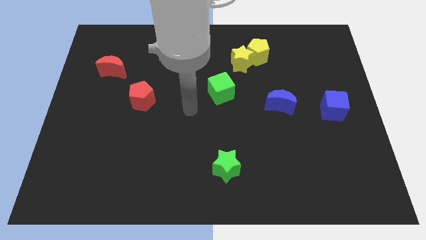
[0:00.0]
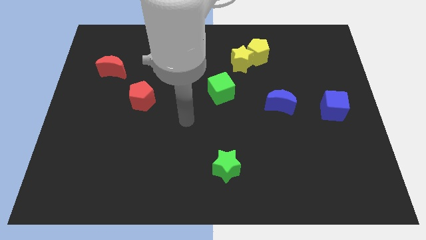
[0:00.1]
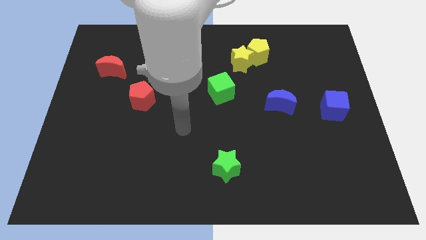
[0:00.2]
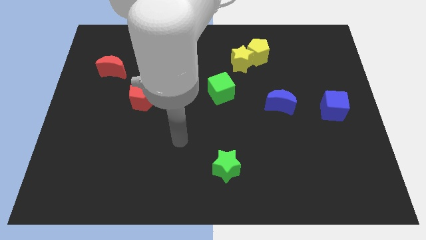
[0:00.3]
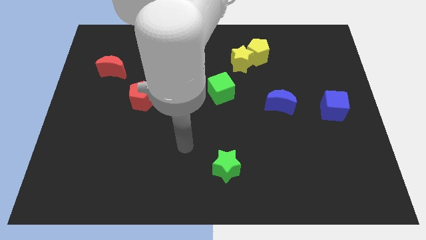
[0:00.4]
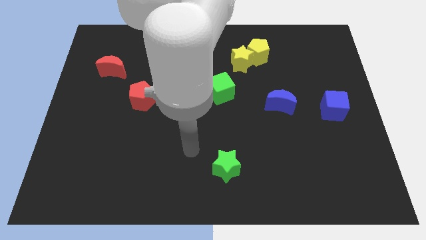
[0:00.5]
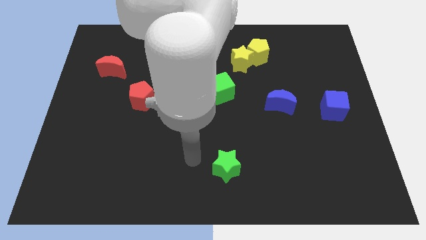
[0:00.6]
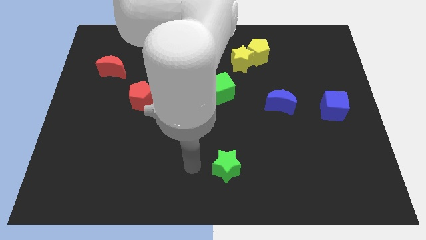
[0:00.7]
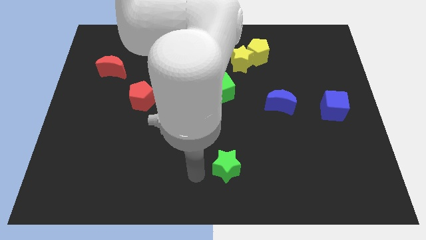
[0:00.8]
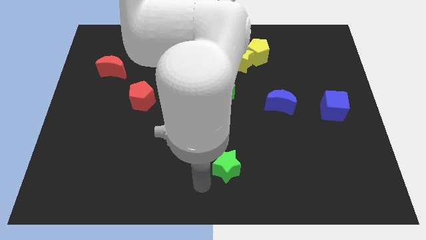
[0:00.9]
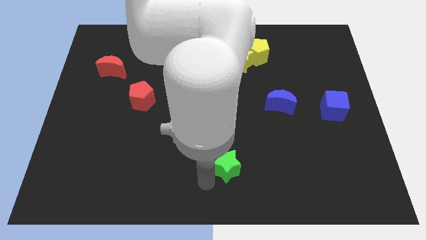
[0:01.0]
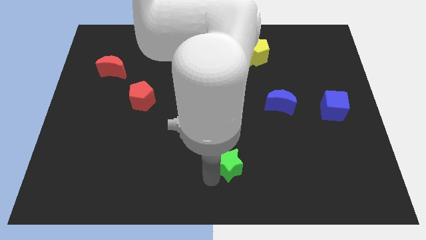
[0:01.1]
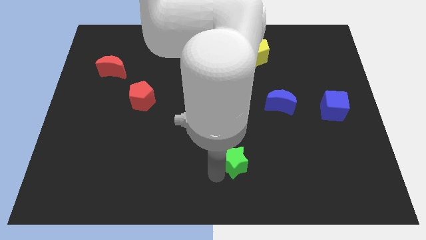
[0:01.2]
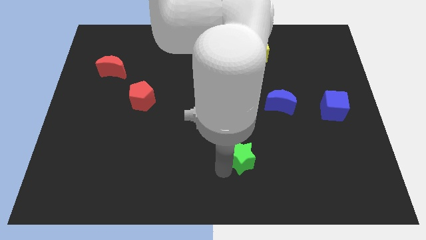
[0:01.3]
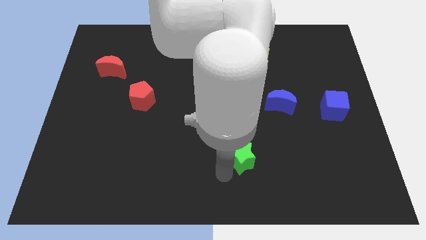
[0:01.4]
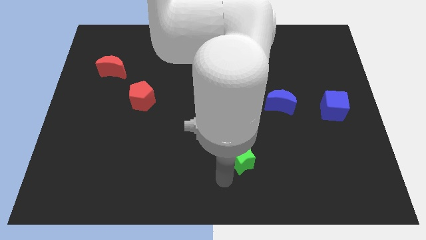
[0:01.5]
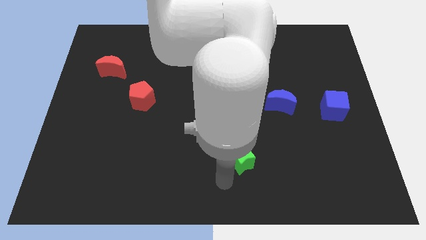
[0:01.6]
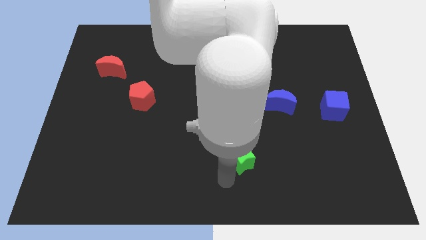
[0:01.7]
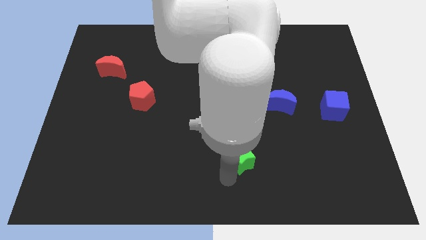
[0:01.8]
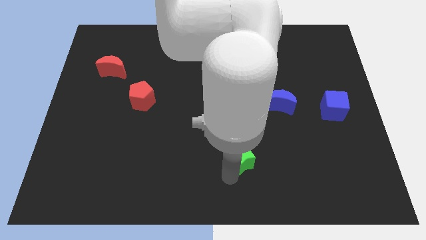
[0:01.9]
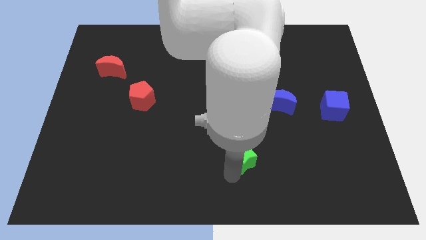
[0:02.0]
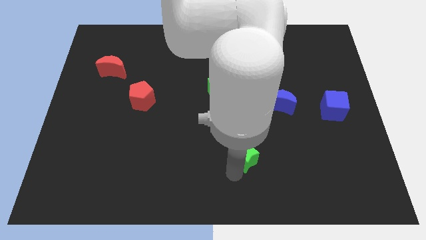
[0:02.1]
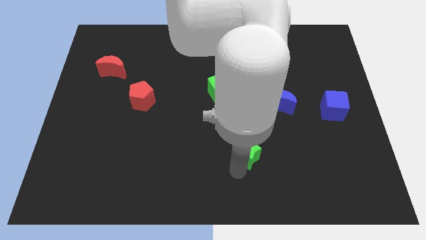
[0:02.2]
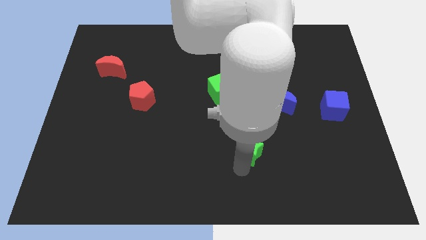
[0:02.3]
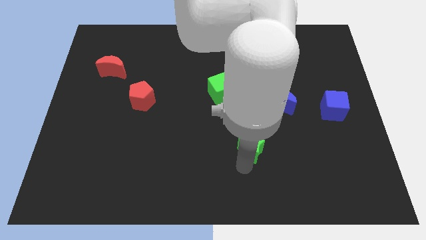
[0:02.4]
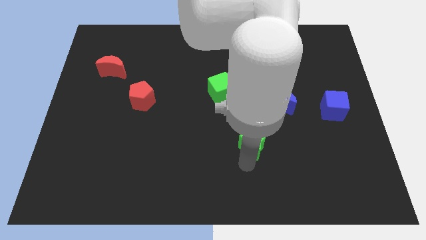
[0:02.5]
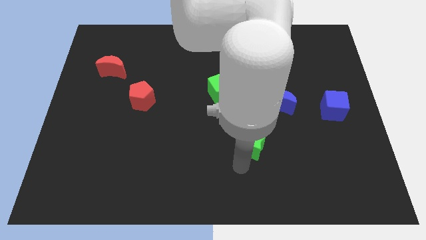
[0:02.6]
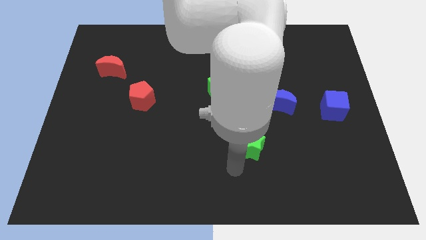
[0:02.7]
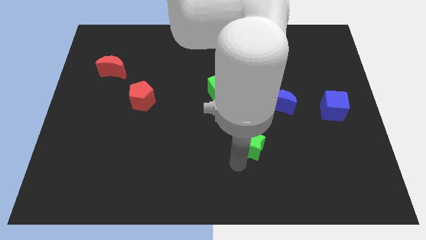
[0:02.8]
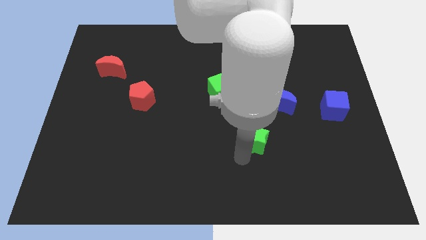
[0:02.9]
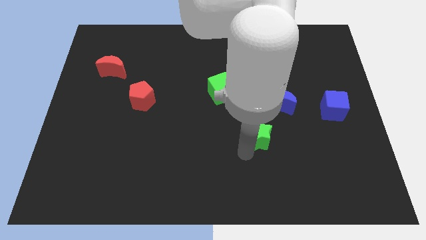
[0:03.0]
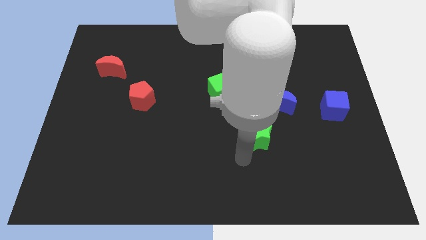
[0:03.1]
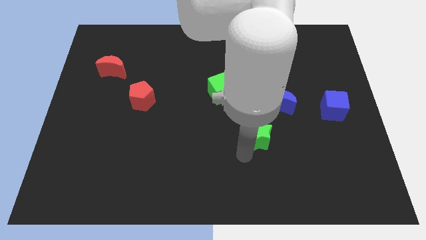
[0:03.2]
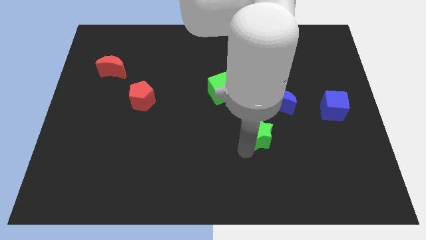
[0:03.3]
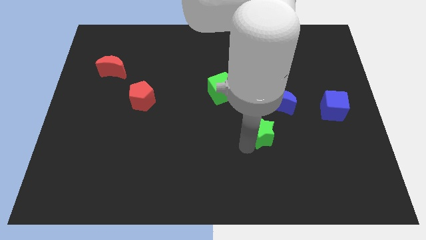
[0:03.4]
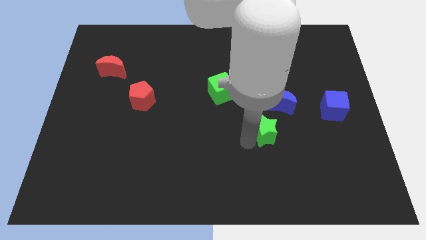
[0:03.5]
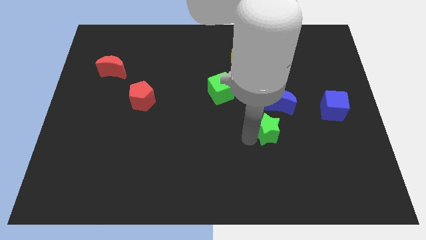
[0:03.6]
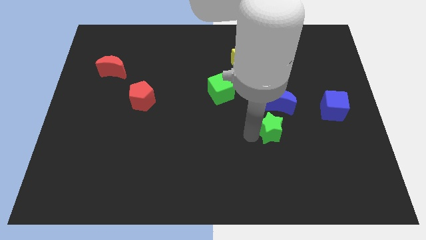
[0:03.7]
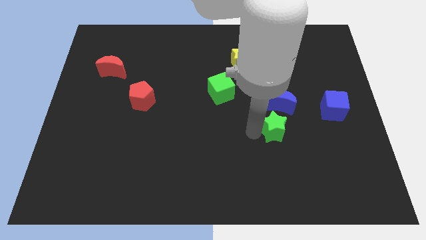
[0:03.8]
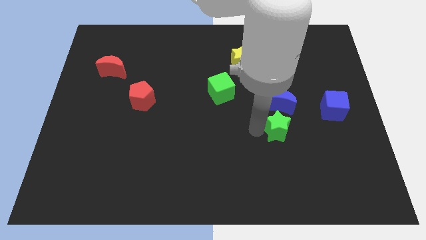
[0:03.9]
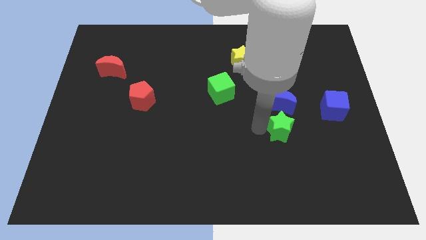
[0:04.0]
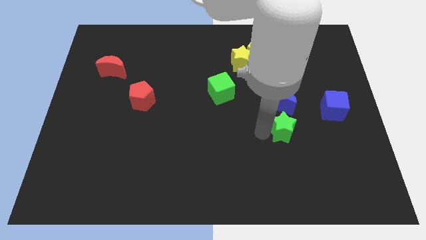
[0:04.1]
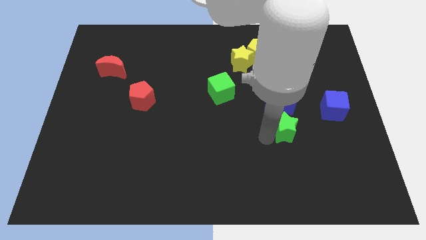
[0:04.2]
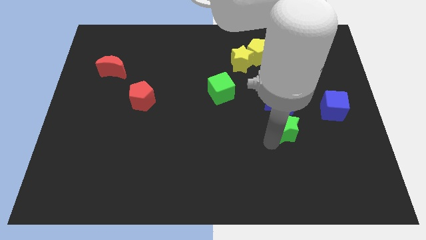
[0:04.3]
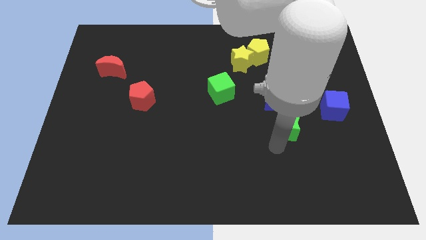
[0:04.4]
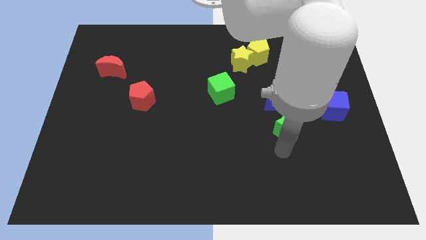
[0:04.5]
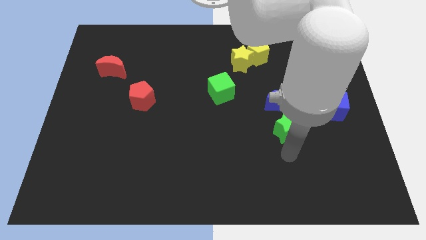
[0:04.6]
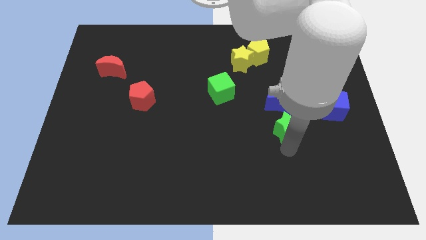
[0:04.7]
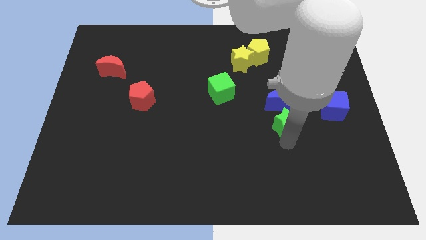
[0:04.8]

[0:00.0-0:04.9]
push the green star to the blue moon

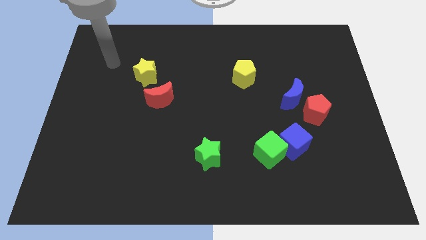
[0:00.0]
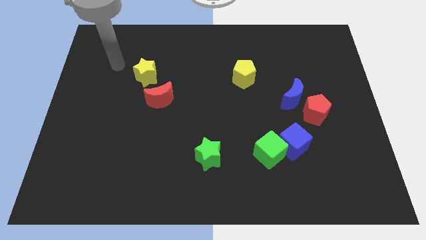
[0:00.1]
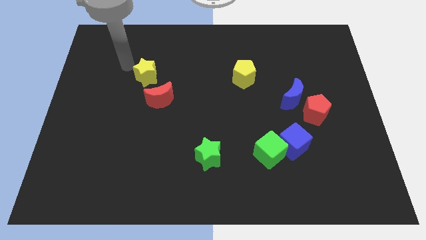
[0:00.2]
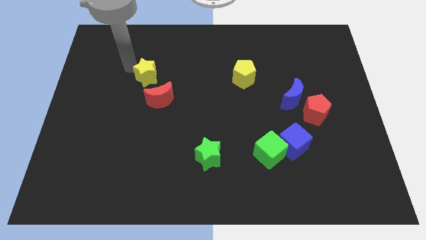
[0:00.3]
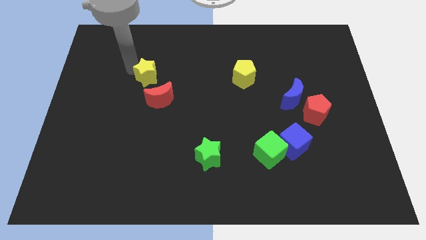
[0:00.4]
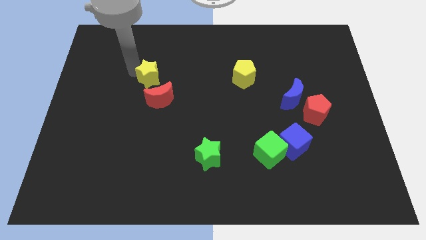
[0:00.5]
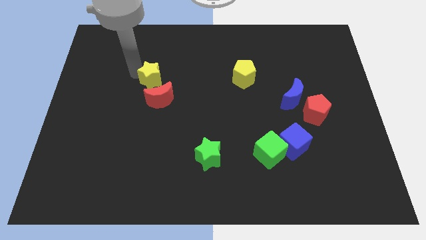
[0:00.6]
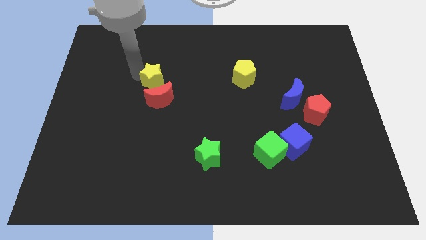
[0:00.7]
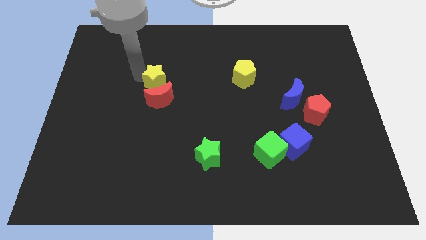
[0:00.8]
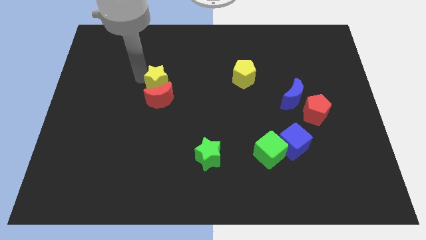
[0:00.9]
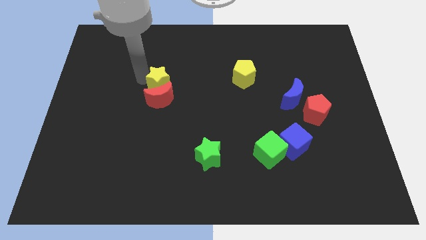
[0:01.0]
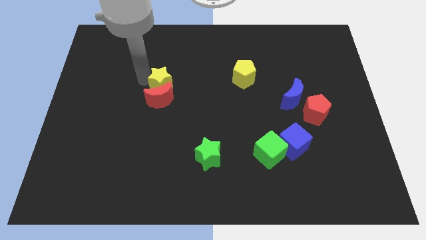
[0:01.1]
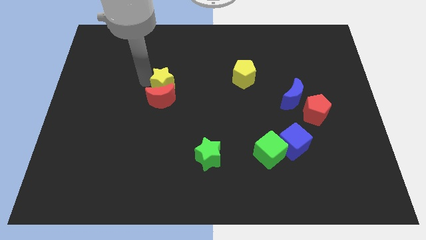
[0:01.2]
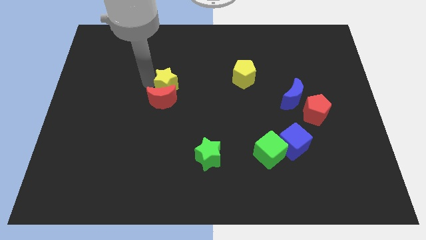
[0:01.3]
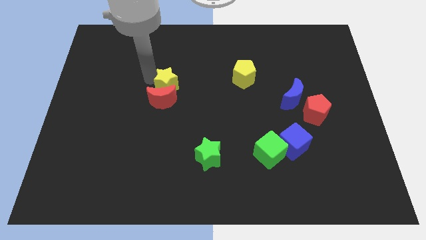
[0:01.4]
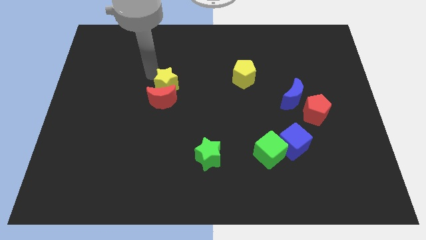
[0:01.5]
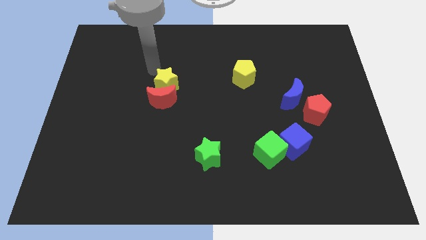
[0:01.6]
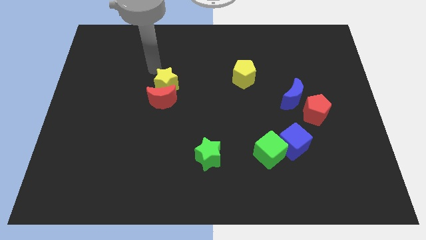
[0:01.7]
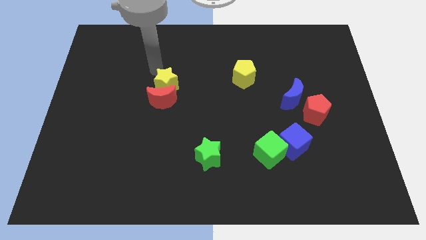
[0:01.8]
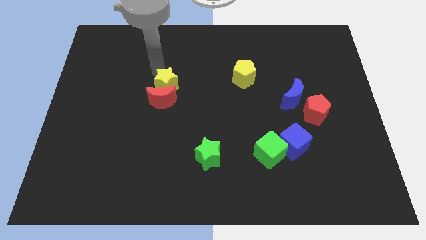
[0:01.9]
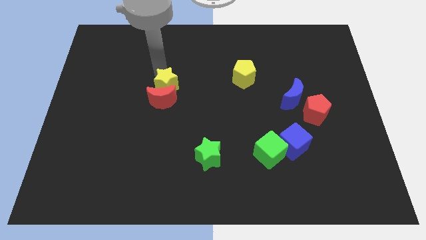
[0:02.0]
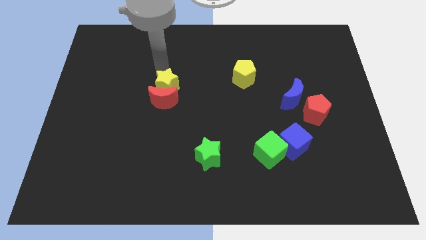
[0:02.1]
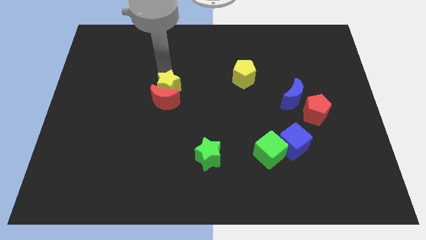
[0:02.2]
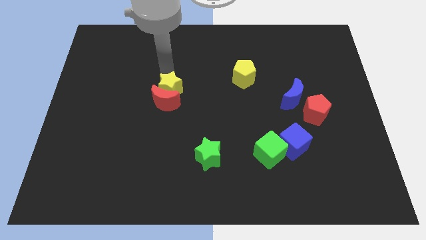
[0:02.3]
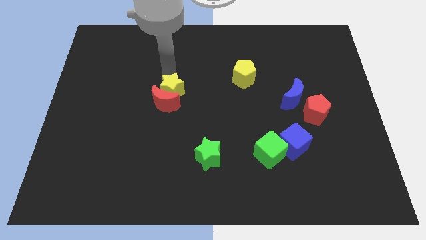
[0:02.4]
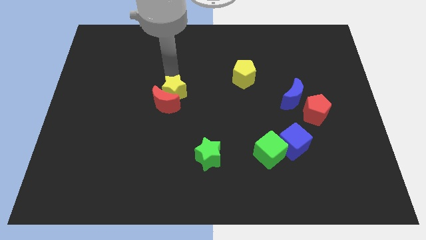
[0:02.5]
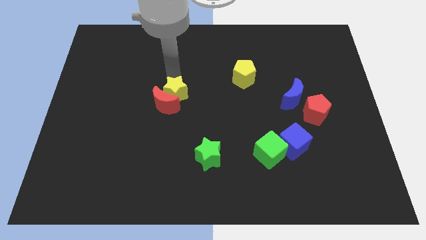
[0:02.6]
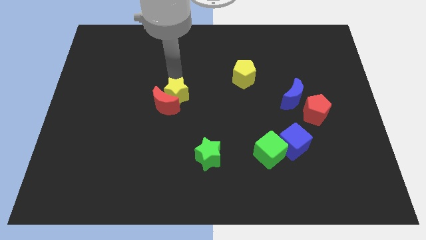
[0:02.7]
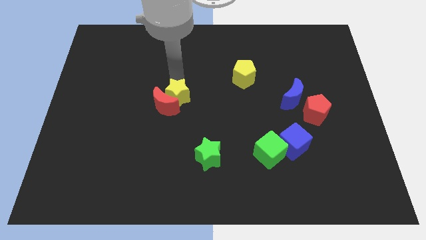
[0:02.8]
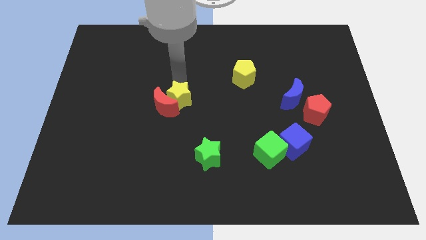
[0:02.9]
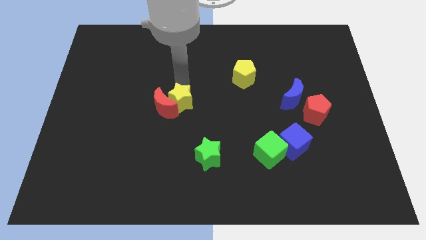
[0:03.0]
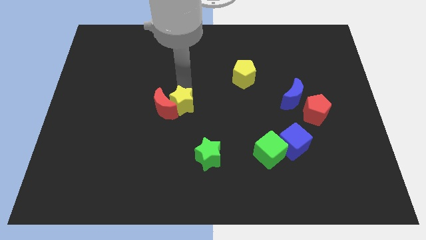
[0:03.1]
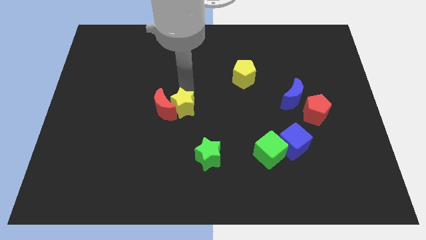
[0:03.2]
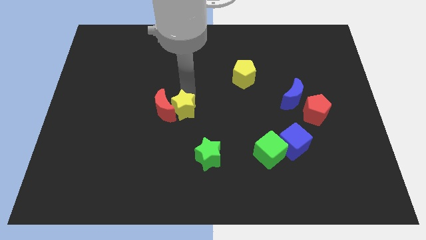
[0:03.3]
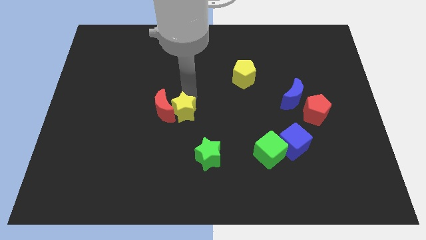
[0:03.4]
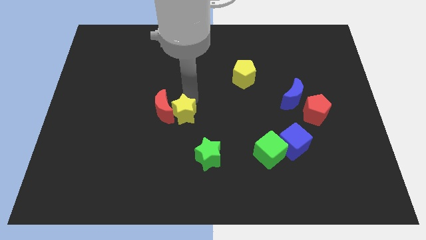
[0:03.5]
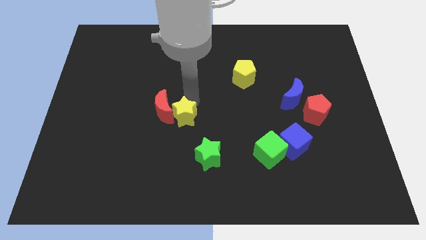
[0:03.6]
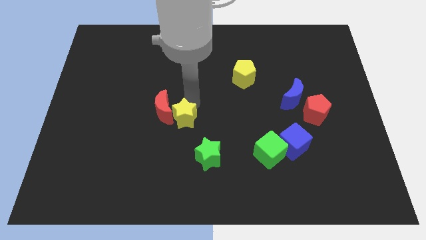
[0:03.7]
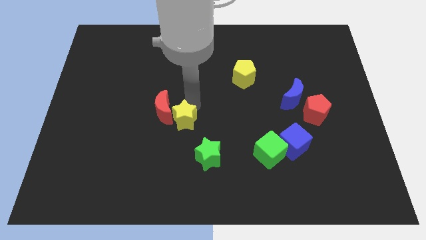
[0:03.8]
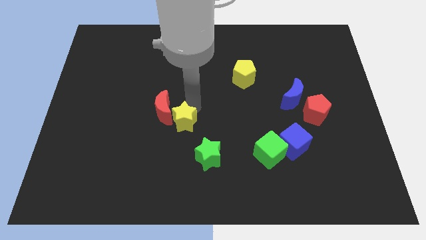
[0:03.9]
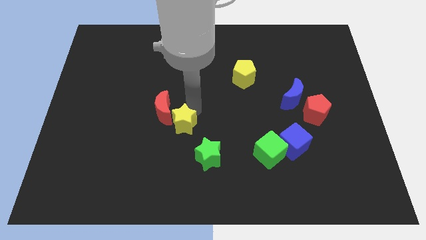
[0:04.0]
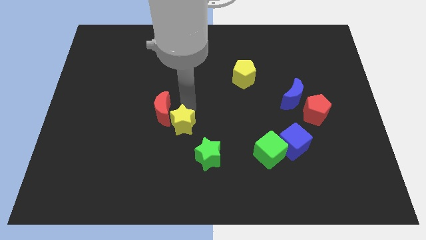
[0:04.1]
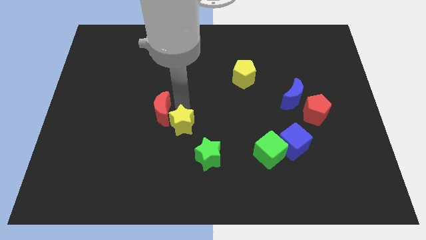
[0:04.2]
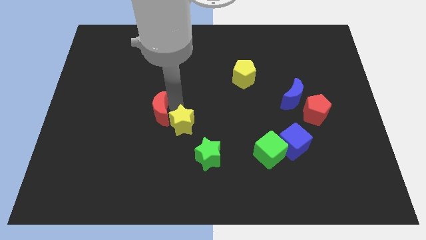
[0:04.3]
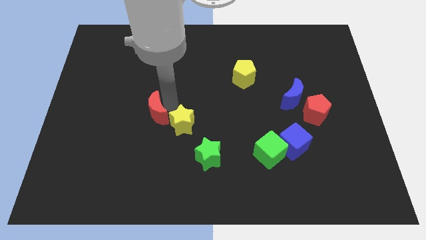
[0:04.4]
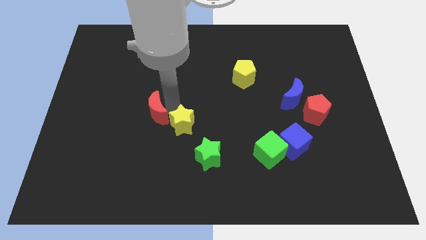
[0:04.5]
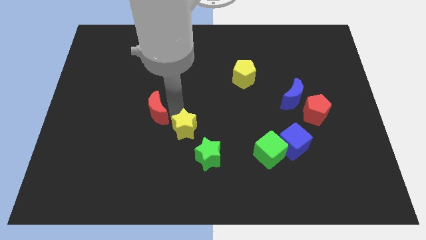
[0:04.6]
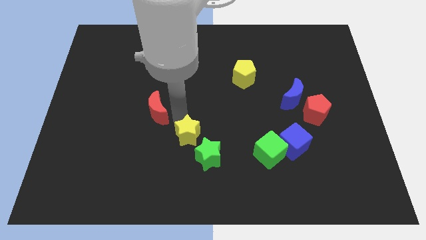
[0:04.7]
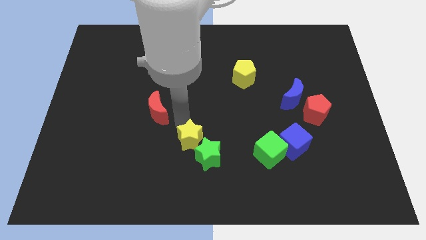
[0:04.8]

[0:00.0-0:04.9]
slide the yellow star next to the green star
